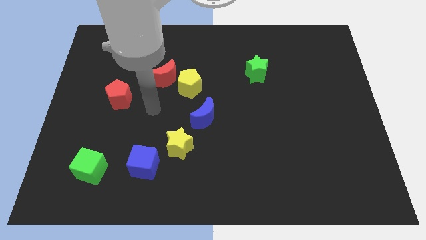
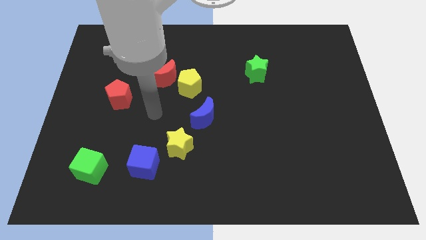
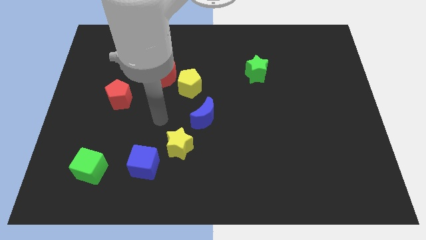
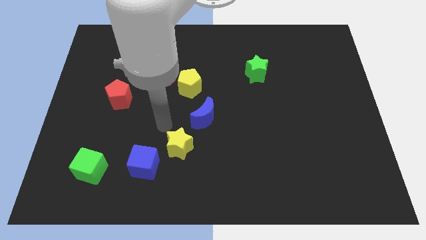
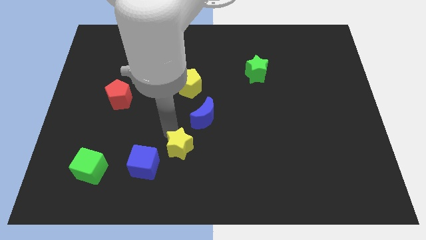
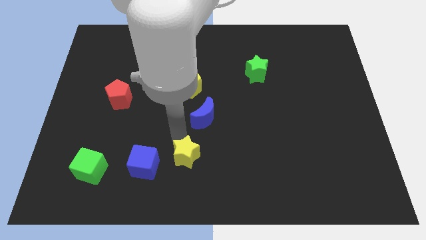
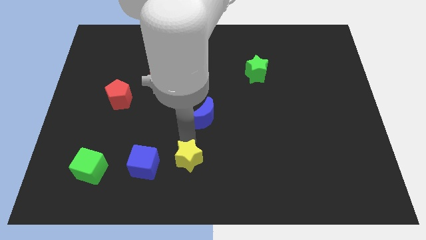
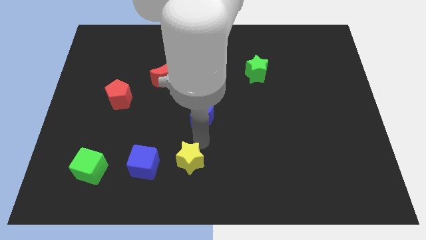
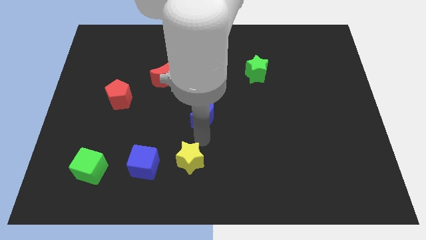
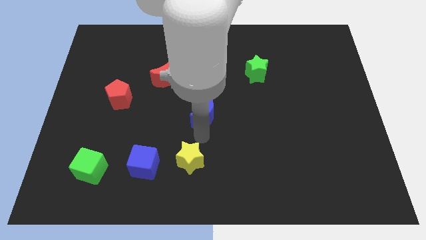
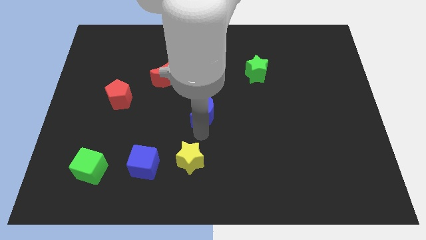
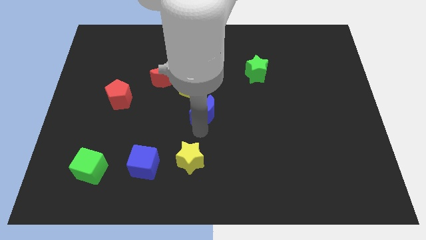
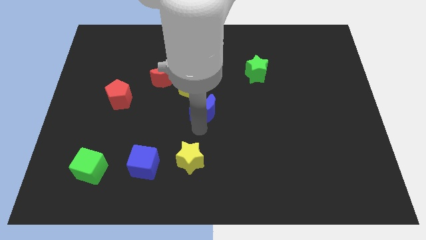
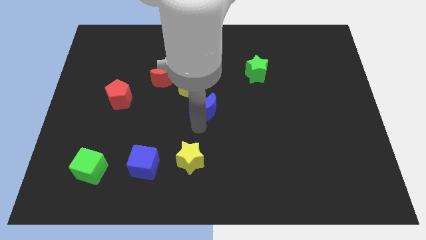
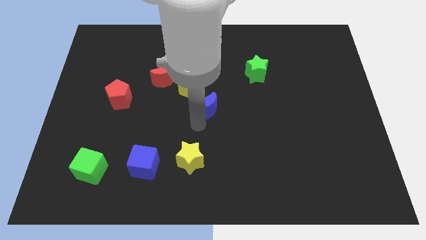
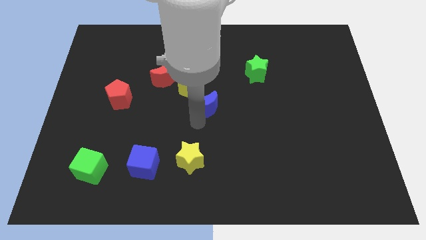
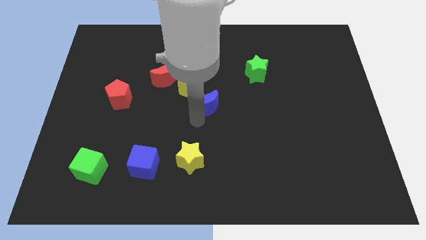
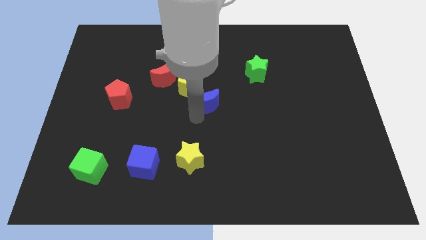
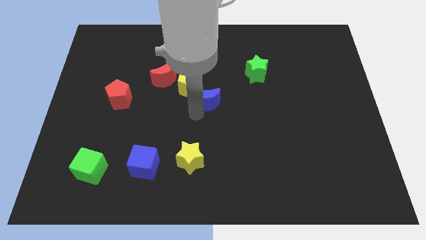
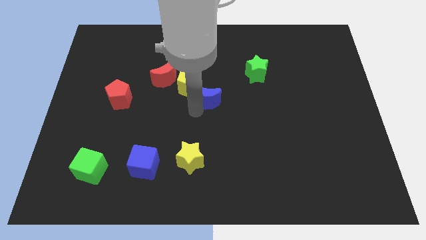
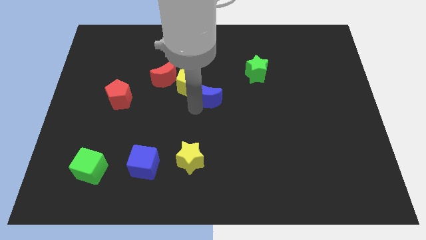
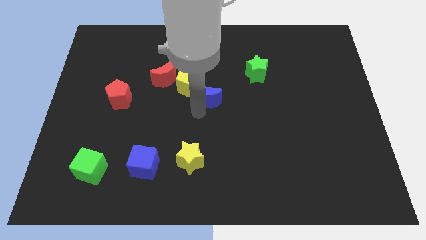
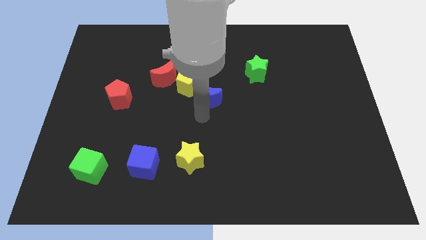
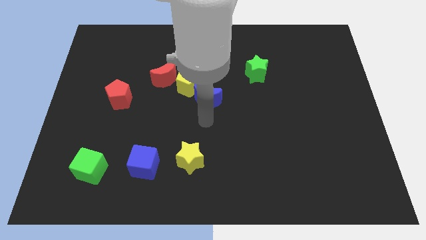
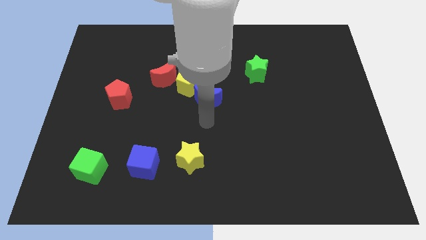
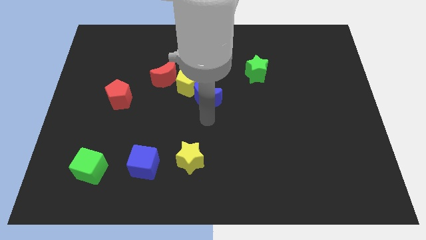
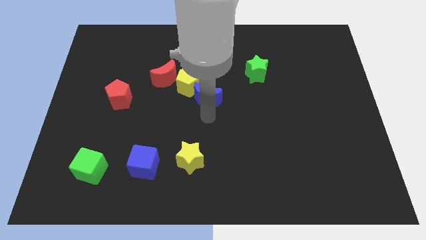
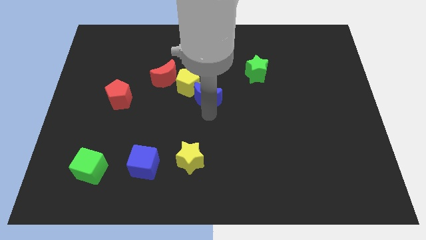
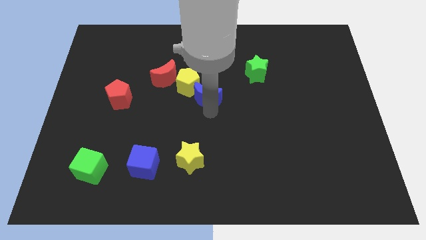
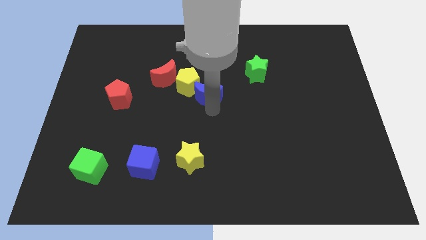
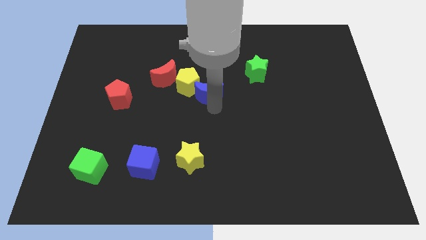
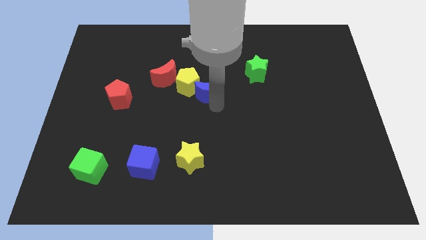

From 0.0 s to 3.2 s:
slightly slide the blue moon up

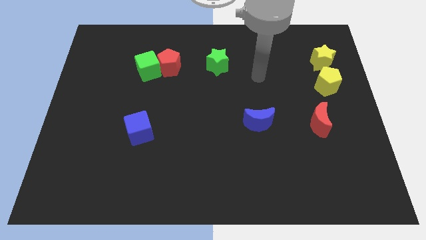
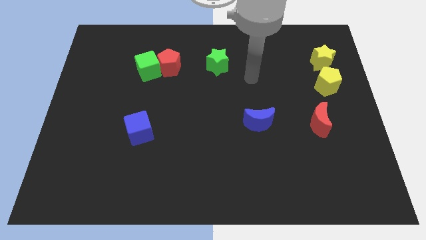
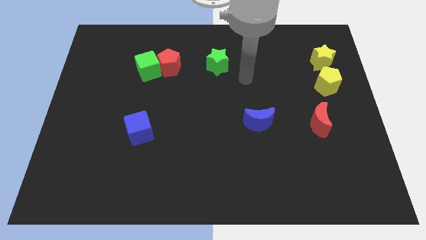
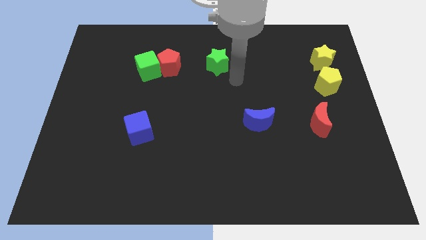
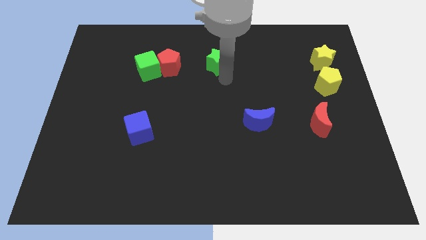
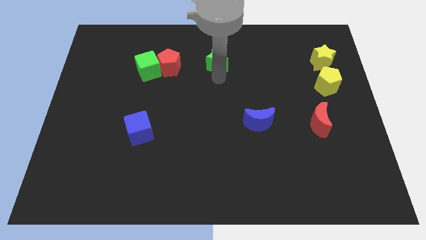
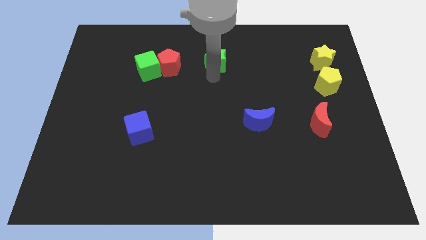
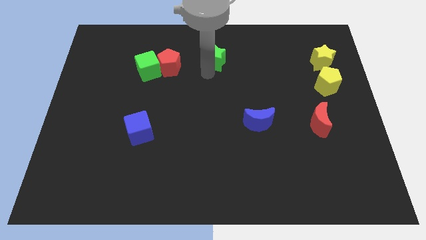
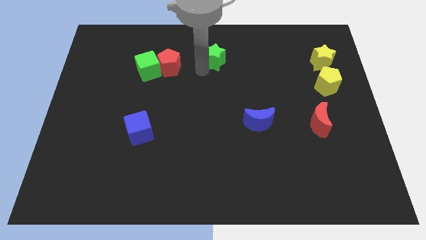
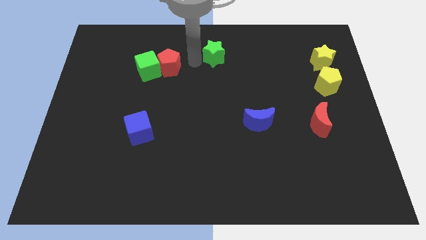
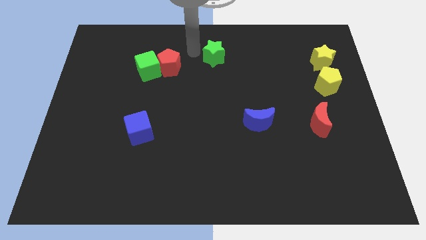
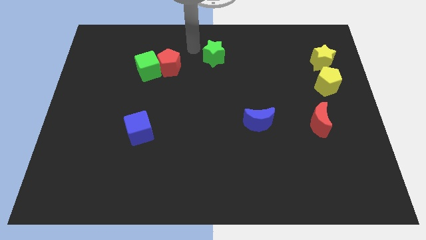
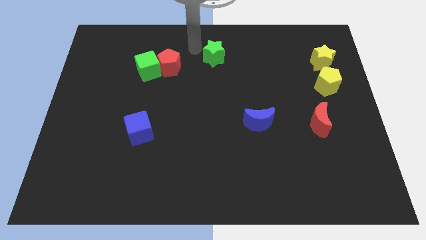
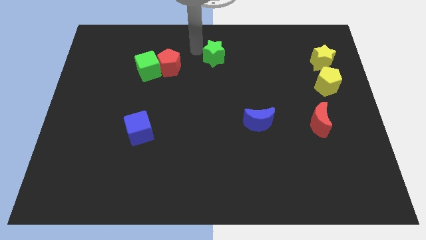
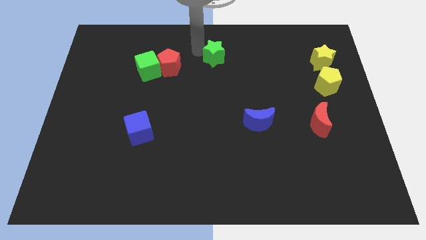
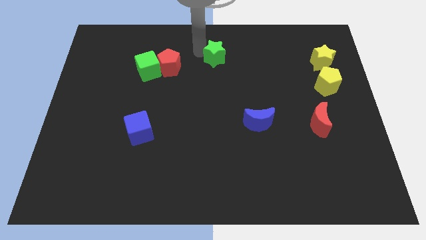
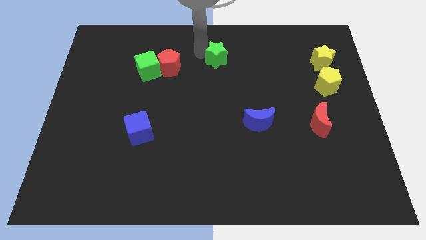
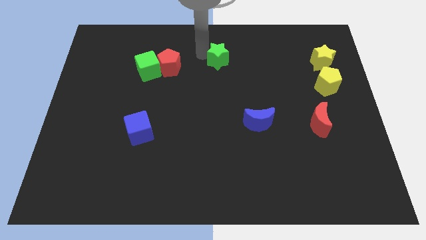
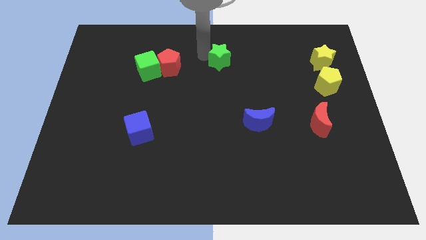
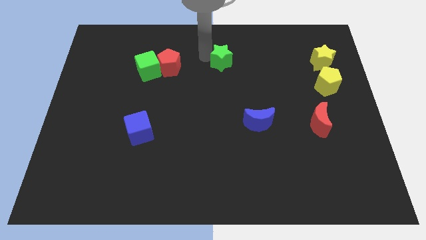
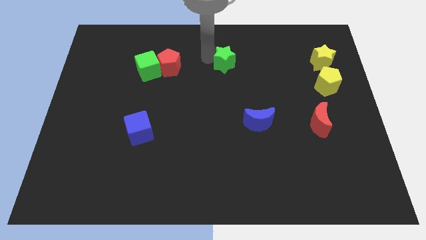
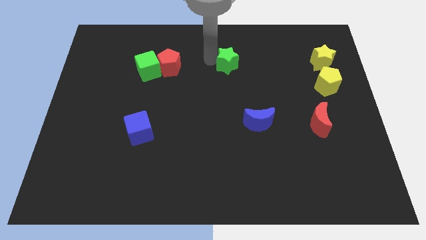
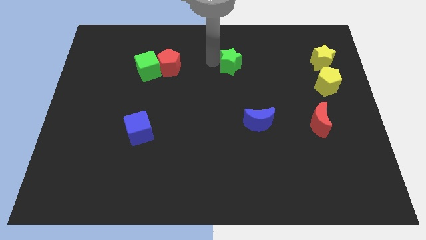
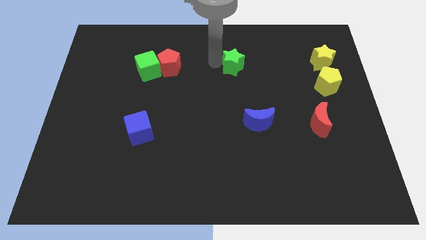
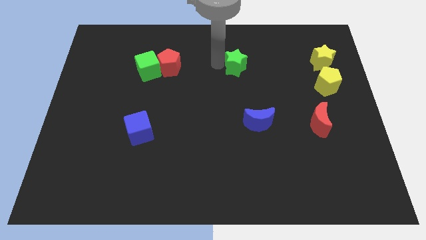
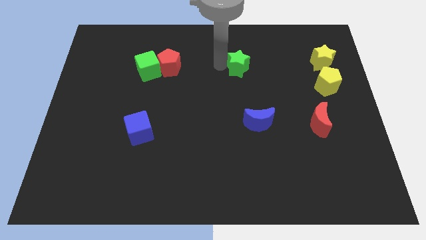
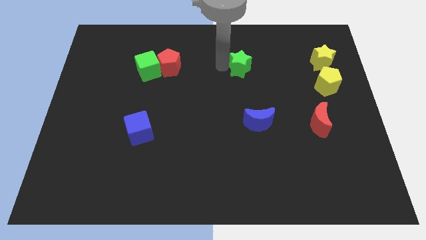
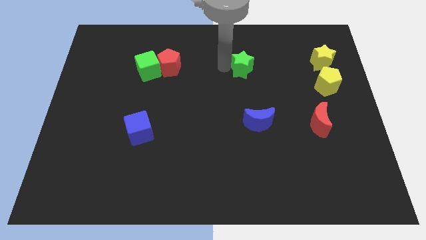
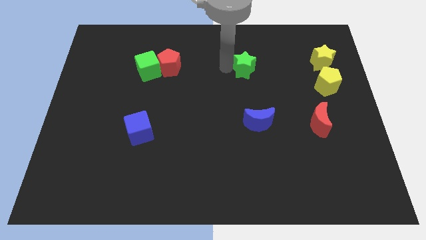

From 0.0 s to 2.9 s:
slightly move the green star right

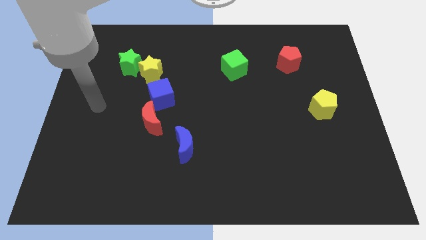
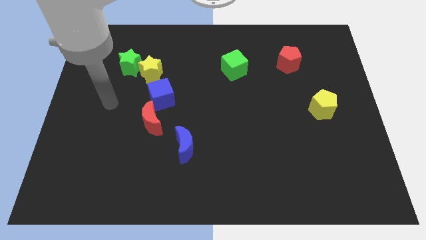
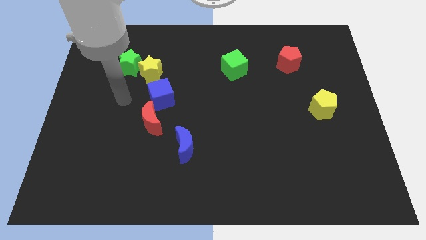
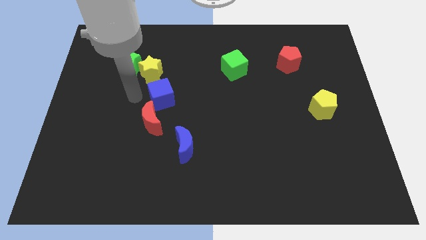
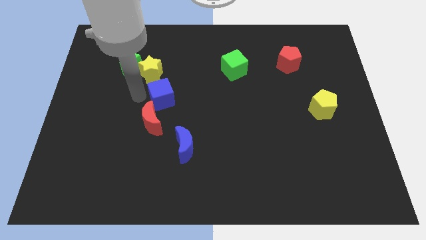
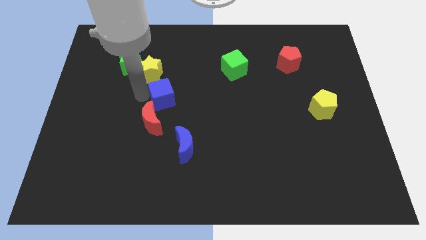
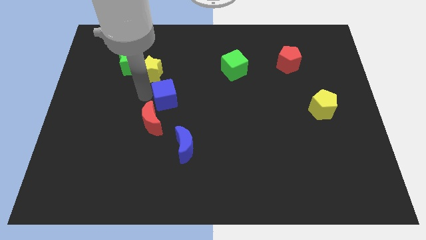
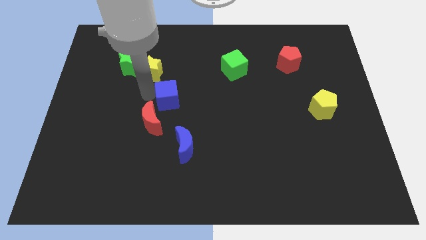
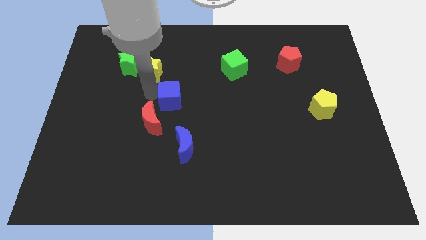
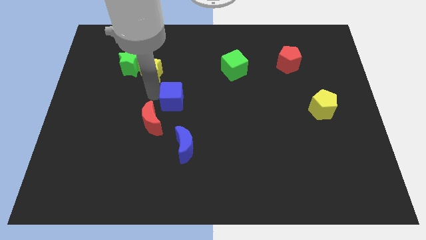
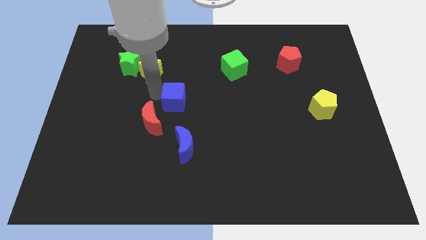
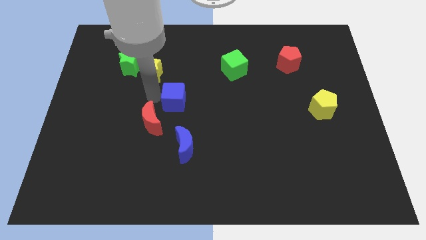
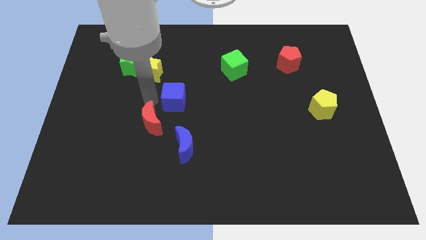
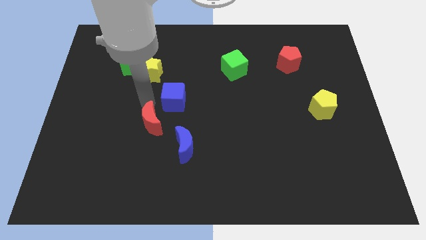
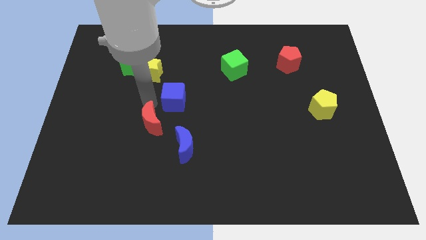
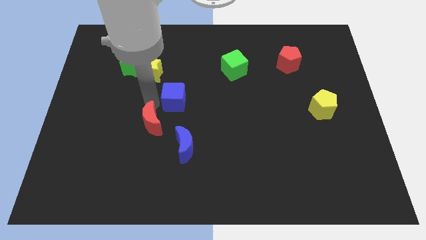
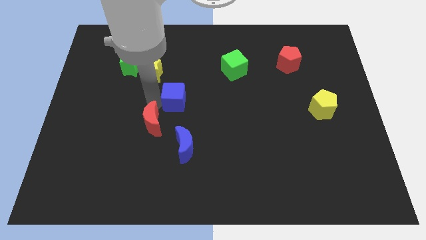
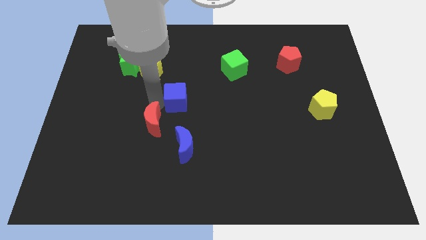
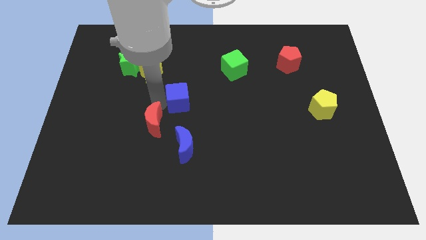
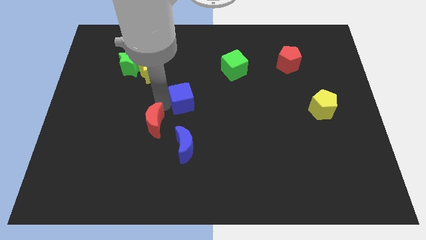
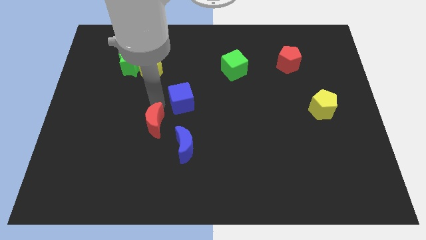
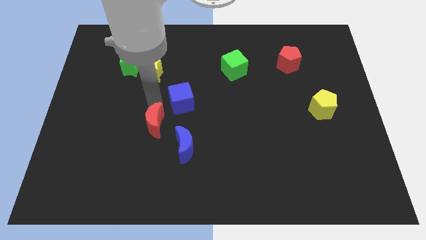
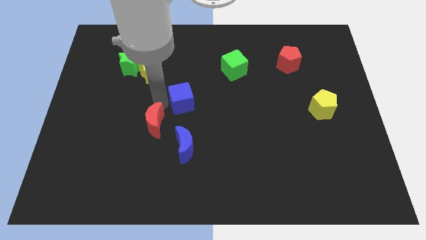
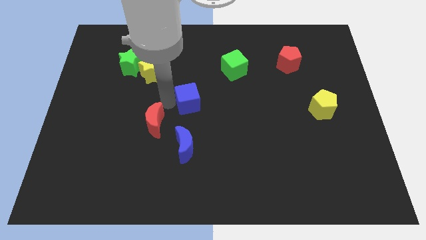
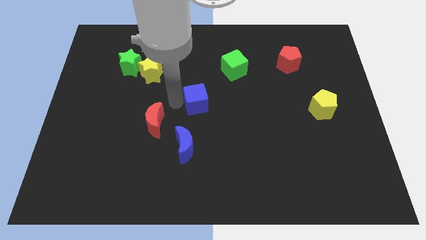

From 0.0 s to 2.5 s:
slide the blue cube a little to the right
